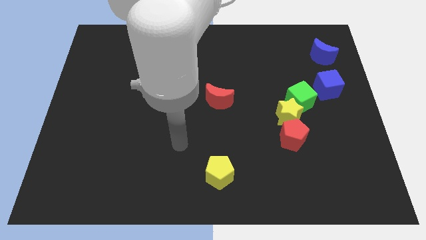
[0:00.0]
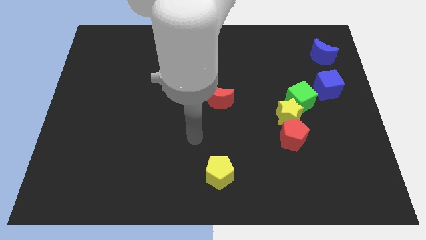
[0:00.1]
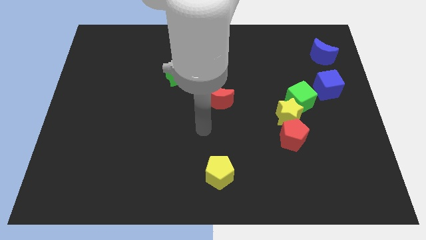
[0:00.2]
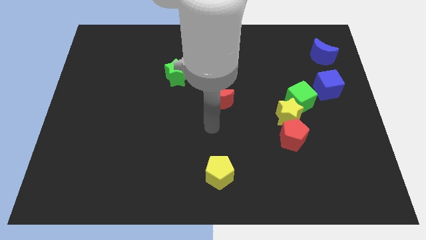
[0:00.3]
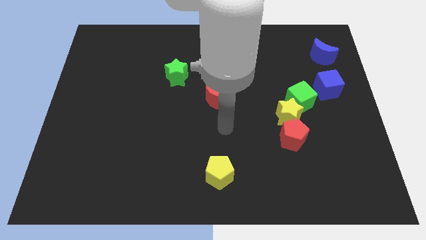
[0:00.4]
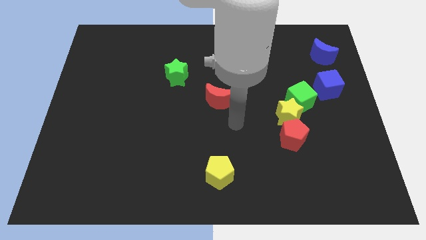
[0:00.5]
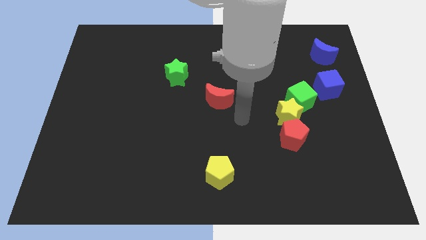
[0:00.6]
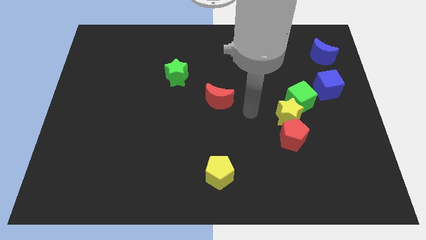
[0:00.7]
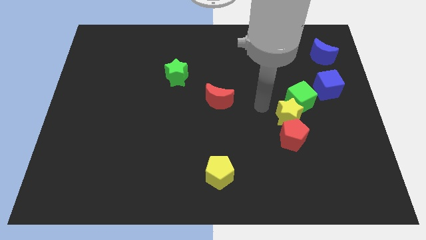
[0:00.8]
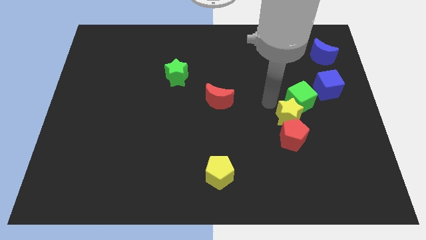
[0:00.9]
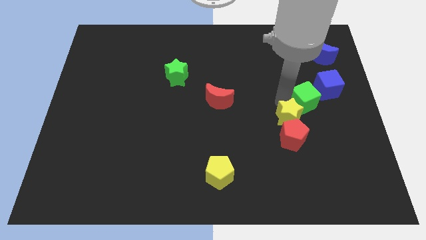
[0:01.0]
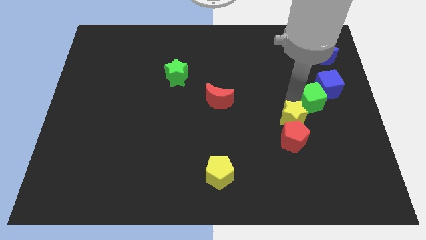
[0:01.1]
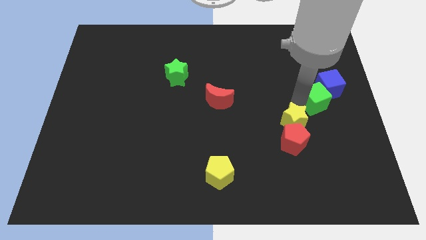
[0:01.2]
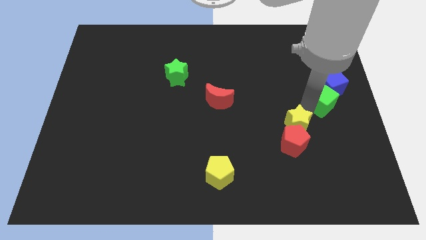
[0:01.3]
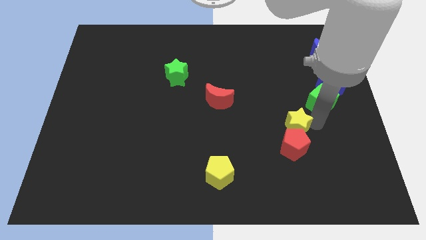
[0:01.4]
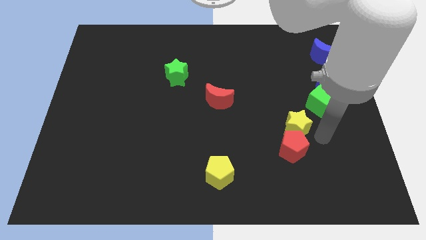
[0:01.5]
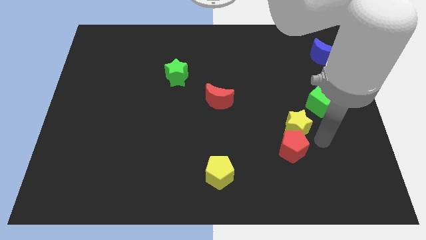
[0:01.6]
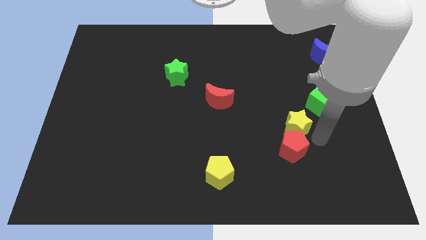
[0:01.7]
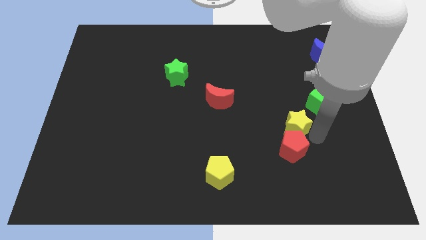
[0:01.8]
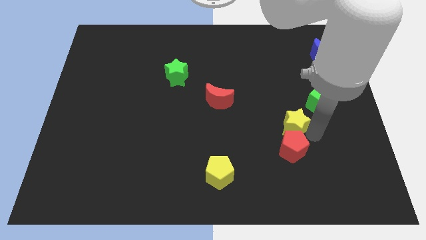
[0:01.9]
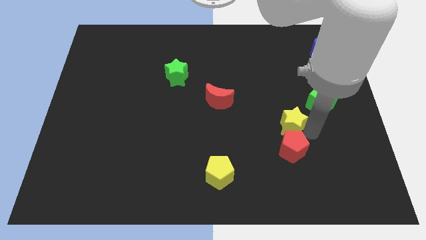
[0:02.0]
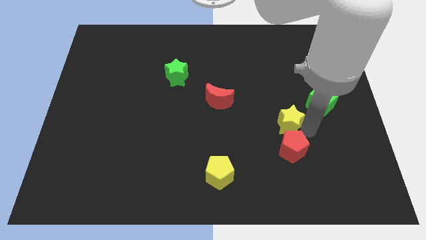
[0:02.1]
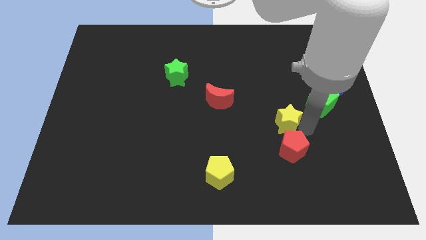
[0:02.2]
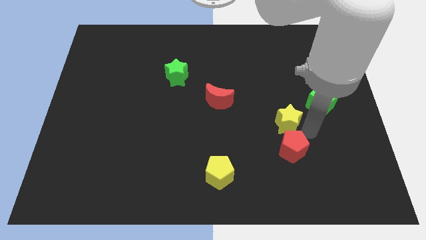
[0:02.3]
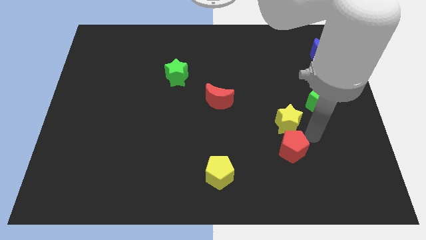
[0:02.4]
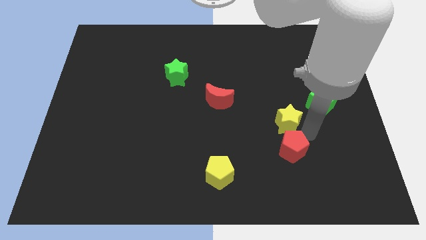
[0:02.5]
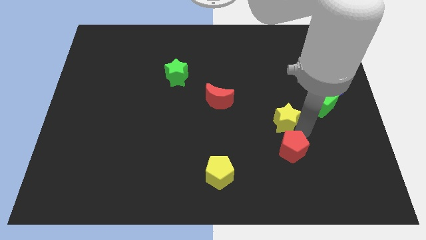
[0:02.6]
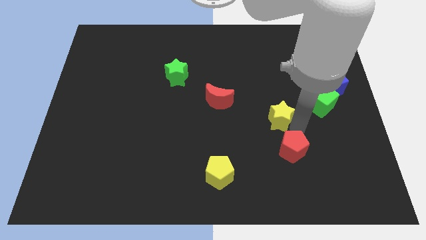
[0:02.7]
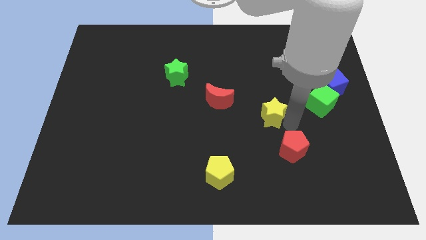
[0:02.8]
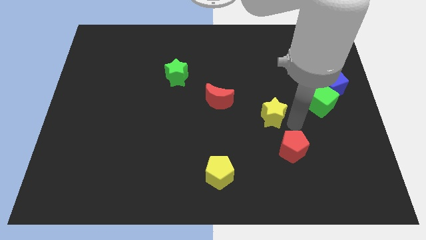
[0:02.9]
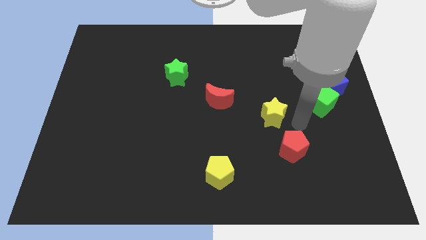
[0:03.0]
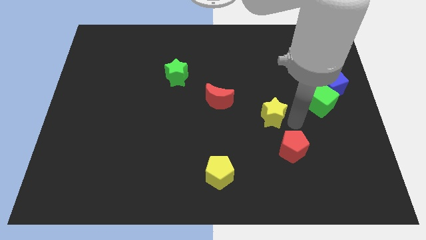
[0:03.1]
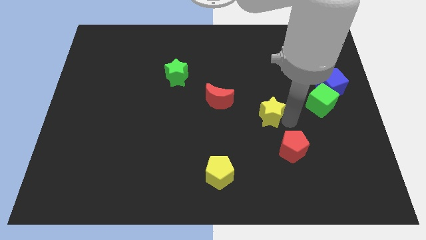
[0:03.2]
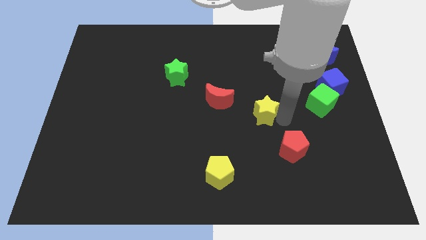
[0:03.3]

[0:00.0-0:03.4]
pull the yellow star apart from the green cube and red pentagon

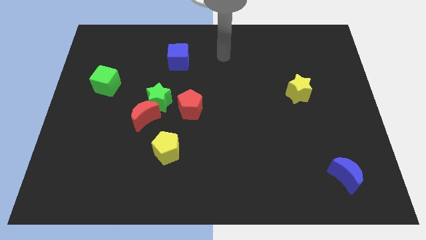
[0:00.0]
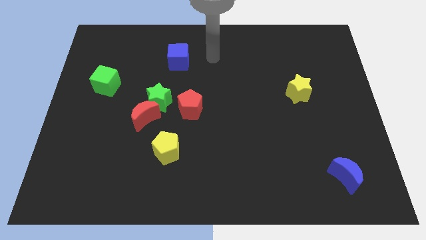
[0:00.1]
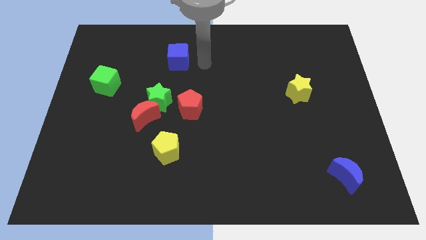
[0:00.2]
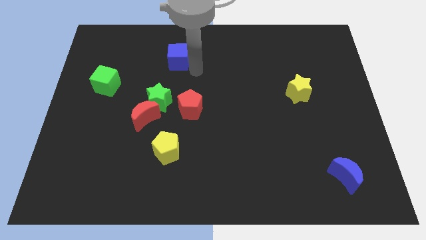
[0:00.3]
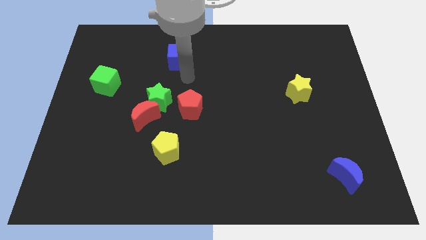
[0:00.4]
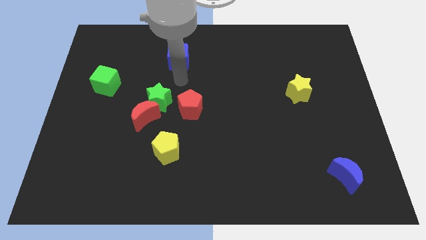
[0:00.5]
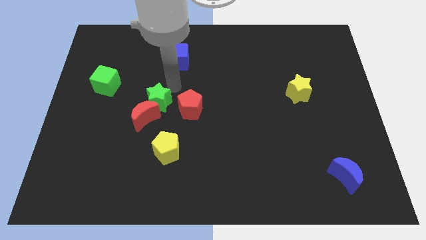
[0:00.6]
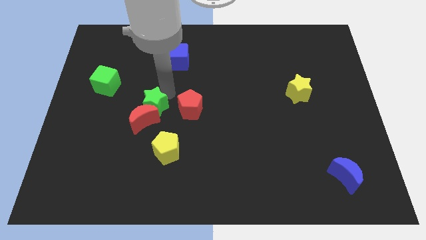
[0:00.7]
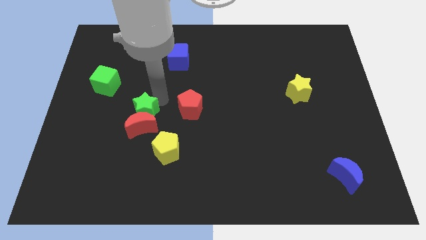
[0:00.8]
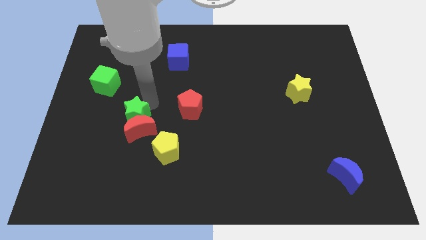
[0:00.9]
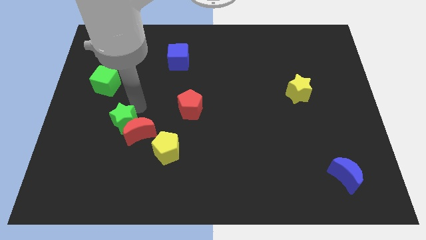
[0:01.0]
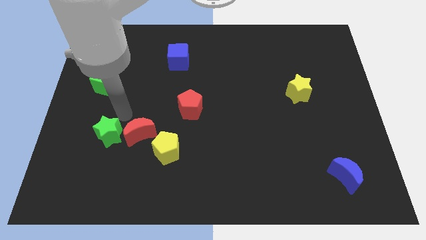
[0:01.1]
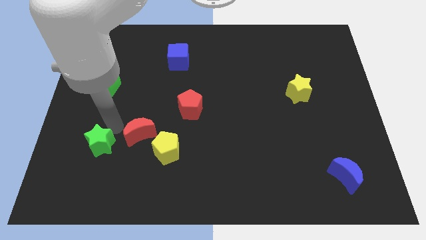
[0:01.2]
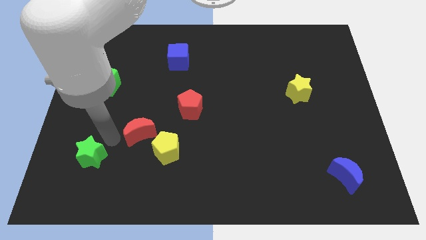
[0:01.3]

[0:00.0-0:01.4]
separate the red moon from the green star

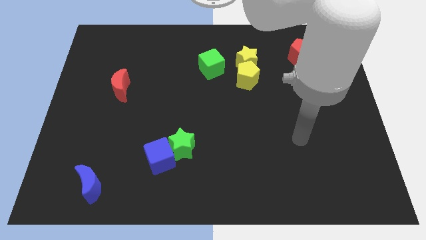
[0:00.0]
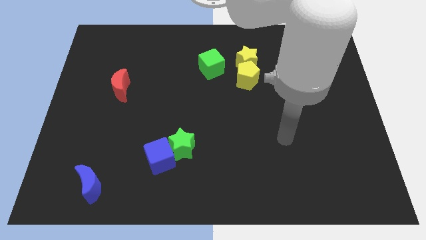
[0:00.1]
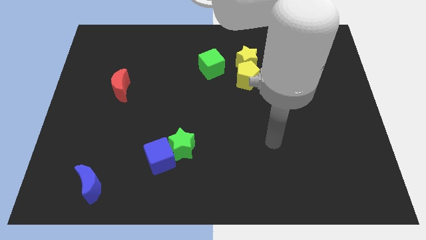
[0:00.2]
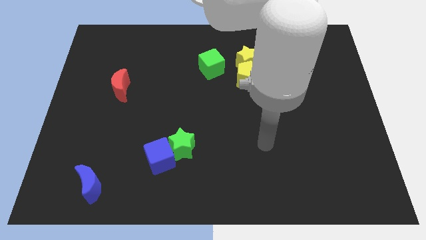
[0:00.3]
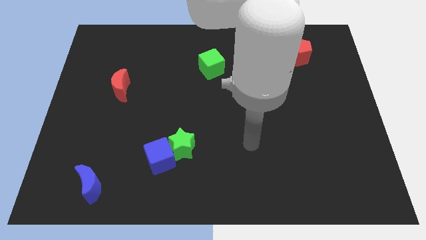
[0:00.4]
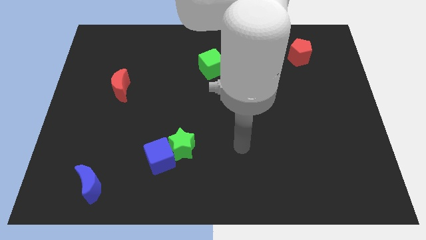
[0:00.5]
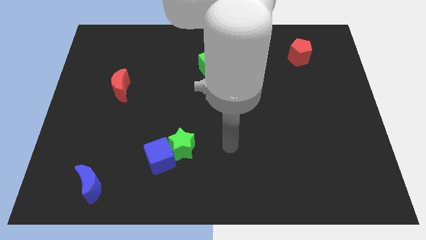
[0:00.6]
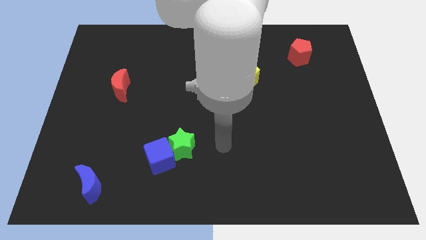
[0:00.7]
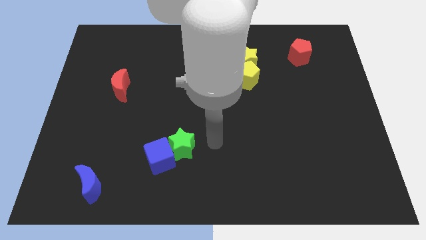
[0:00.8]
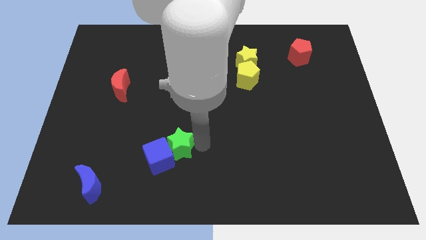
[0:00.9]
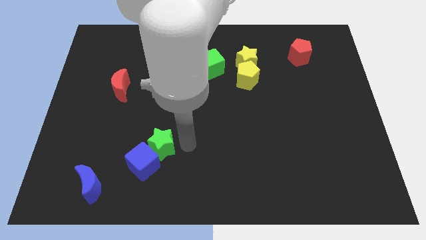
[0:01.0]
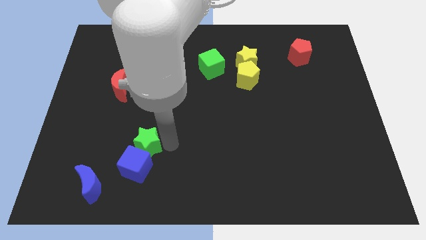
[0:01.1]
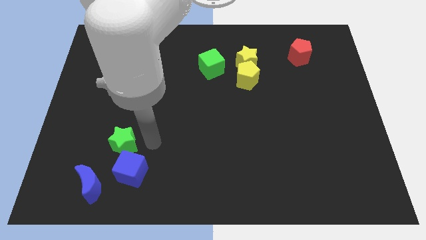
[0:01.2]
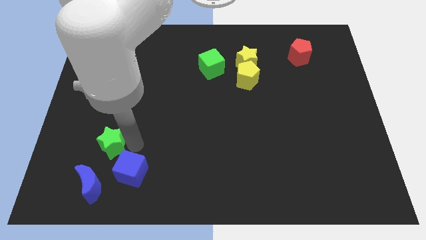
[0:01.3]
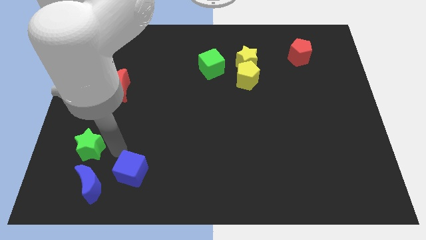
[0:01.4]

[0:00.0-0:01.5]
move the blue cube away from the green star

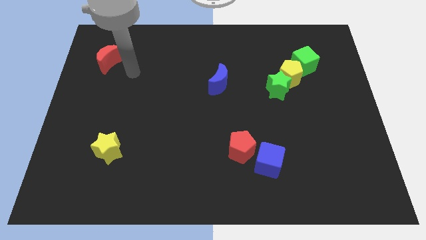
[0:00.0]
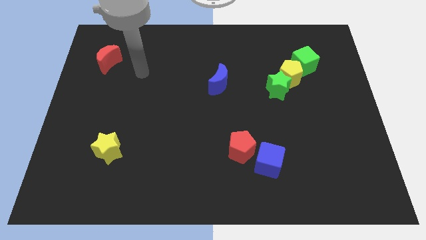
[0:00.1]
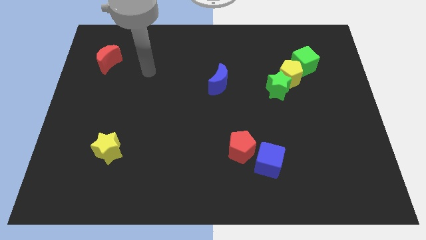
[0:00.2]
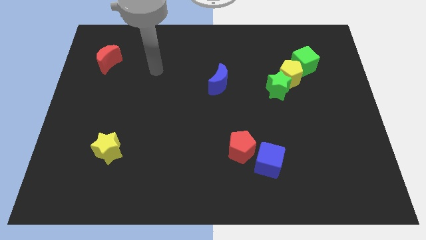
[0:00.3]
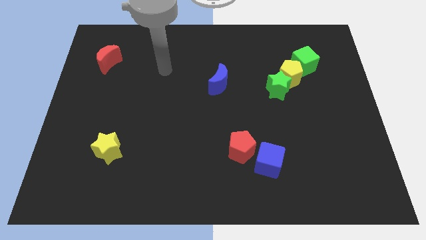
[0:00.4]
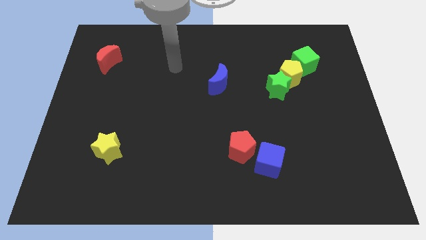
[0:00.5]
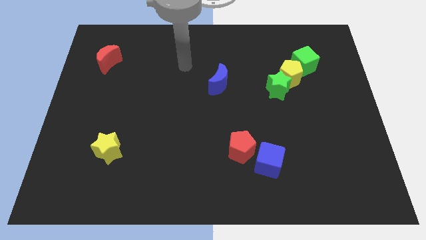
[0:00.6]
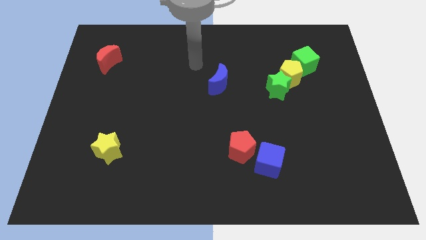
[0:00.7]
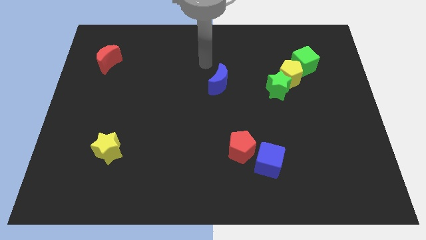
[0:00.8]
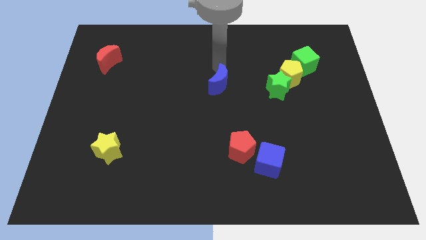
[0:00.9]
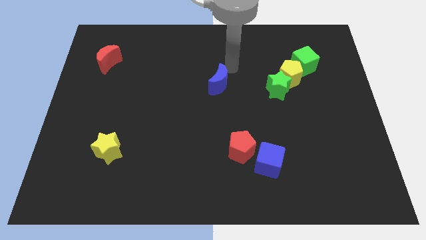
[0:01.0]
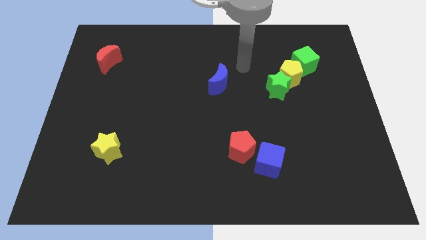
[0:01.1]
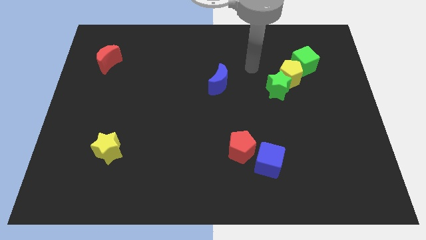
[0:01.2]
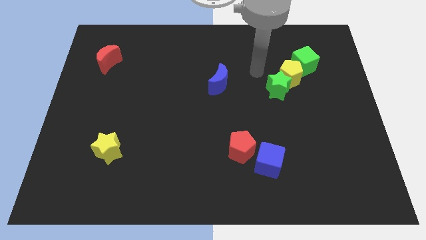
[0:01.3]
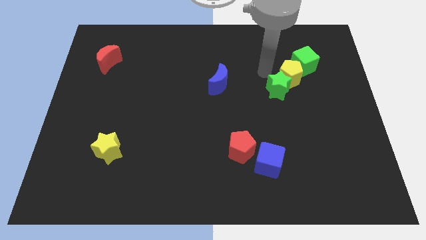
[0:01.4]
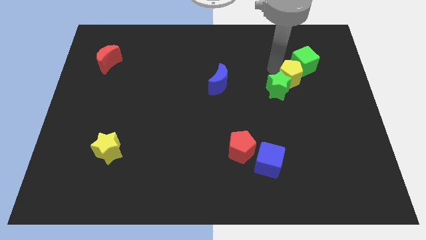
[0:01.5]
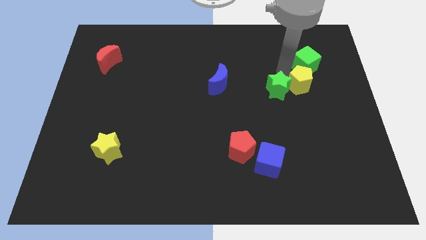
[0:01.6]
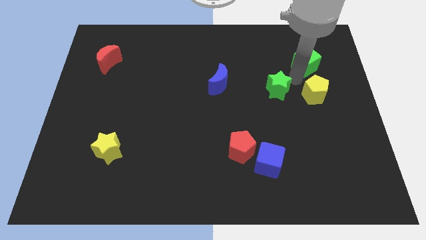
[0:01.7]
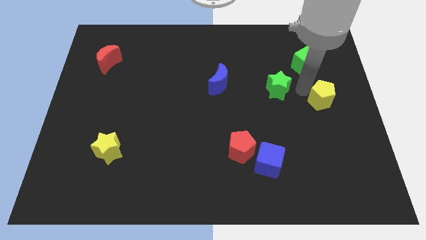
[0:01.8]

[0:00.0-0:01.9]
separate the green star from the yellow pentagon

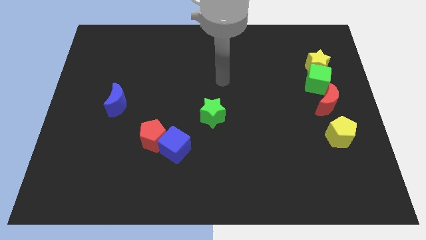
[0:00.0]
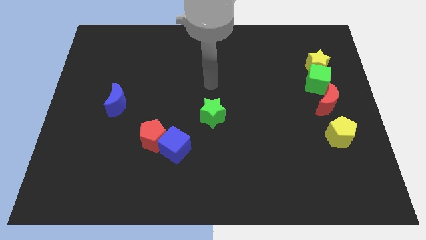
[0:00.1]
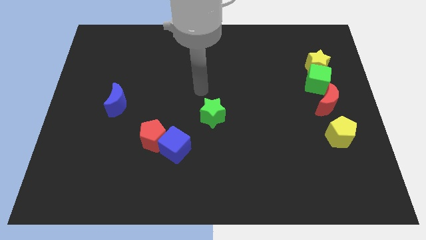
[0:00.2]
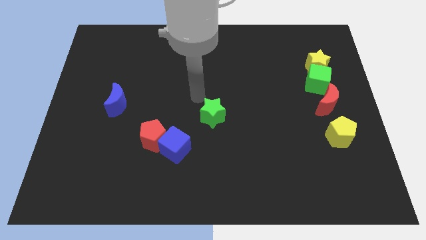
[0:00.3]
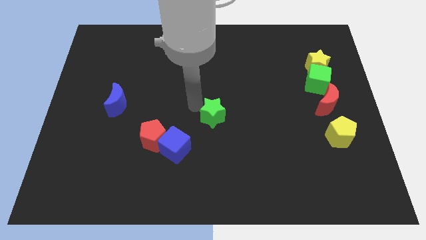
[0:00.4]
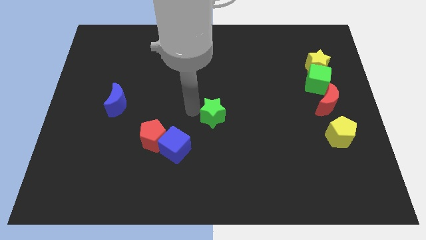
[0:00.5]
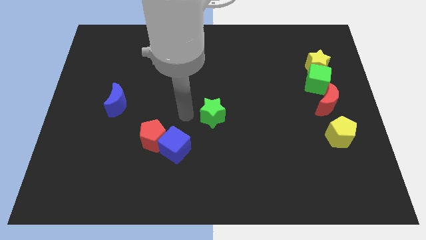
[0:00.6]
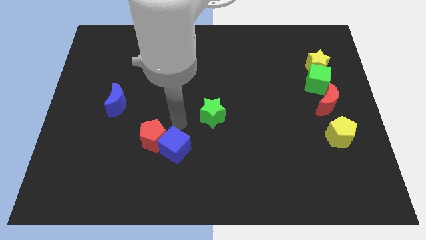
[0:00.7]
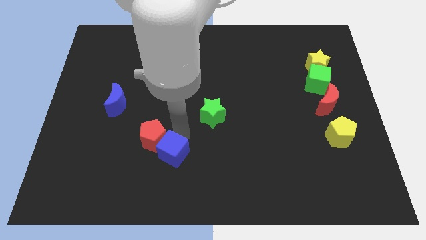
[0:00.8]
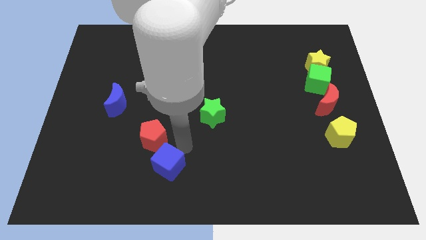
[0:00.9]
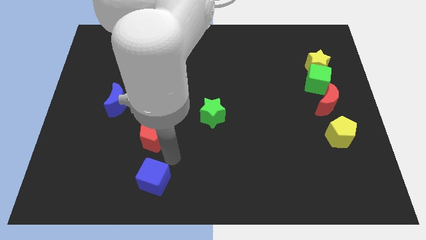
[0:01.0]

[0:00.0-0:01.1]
move the red pentagon away from the blue cube
